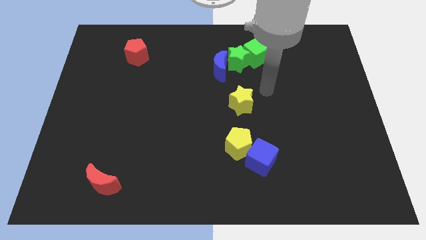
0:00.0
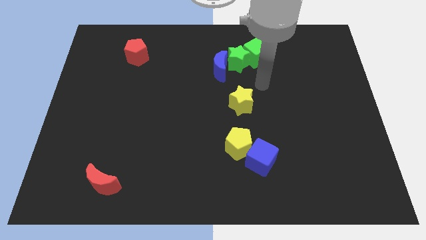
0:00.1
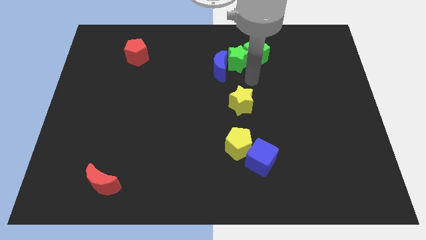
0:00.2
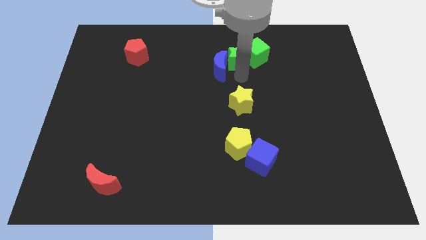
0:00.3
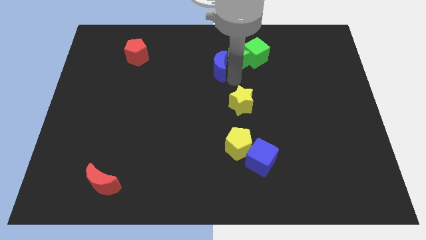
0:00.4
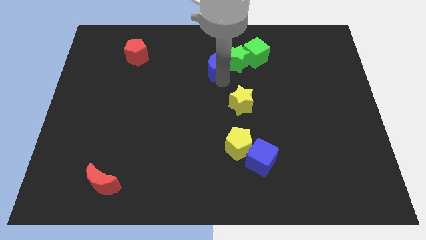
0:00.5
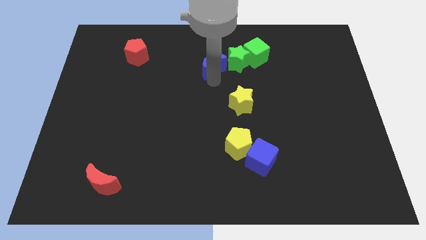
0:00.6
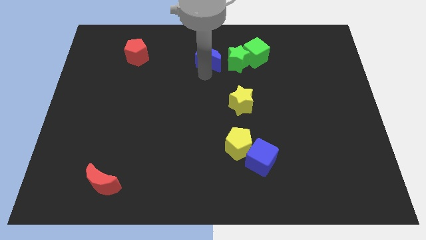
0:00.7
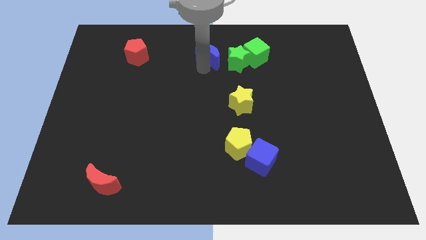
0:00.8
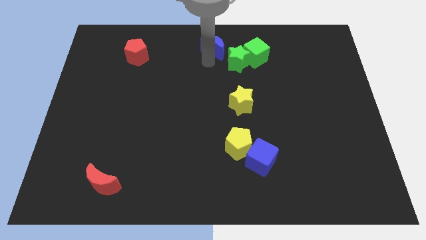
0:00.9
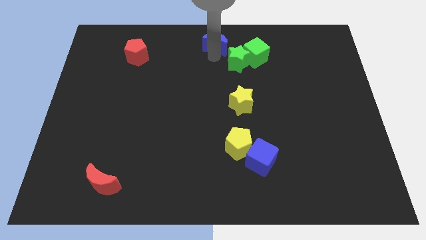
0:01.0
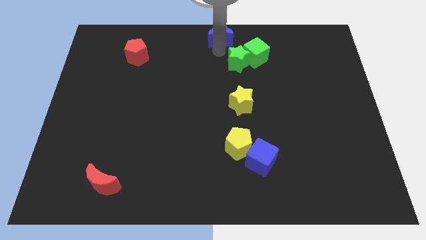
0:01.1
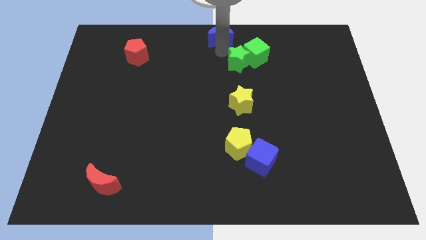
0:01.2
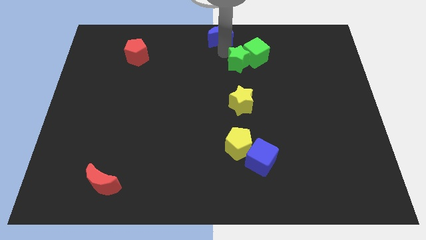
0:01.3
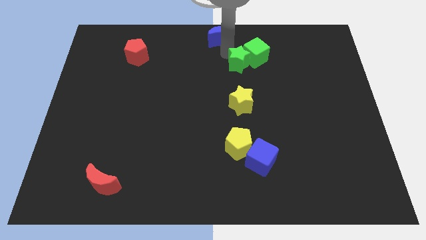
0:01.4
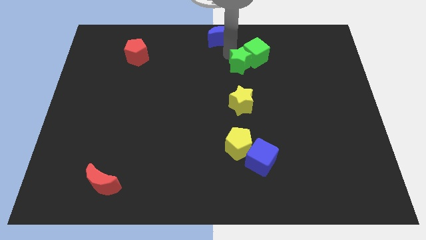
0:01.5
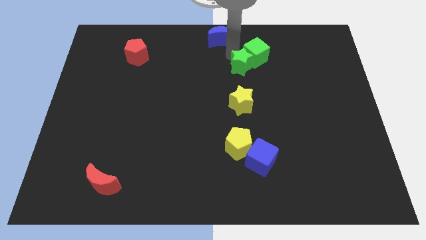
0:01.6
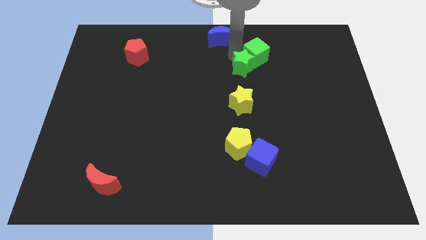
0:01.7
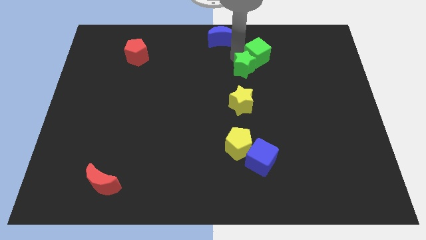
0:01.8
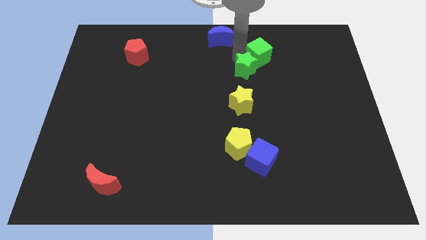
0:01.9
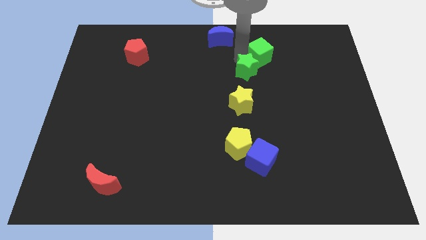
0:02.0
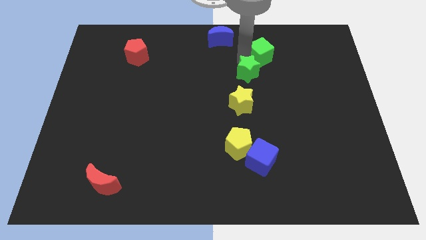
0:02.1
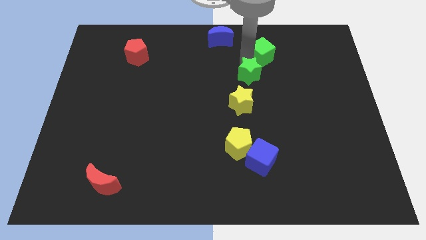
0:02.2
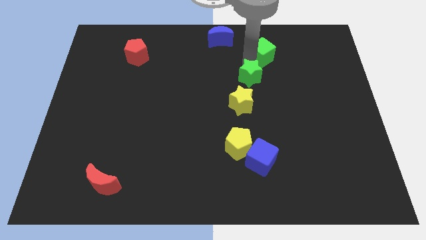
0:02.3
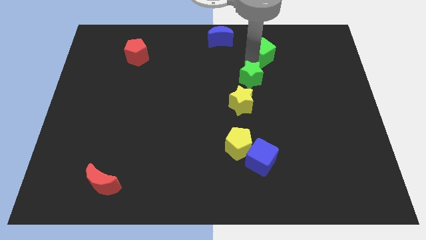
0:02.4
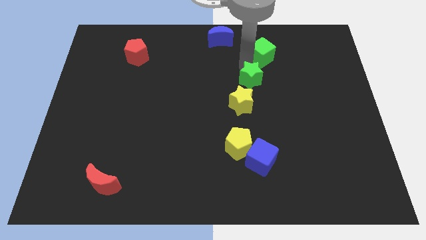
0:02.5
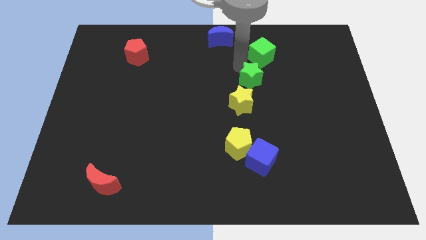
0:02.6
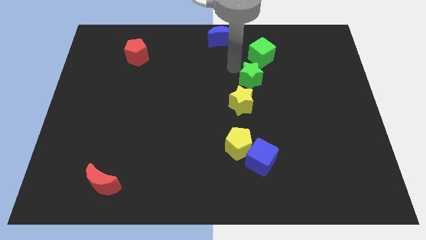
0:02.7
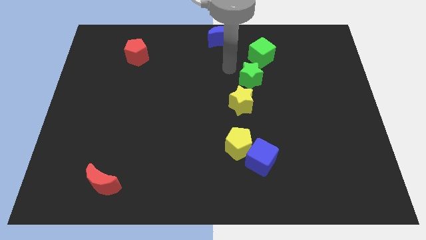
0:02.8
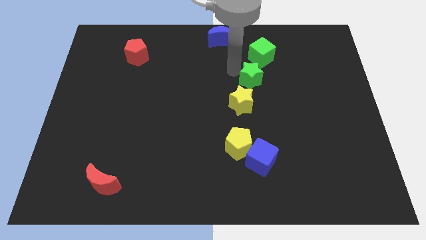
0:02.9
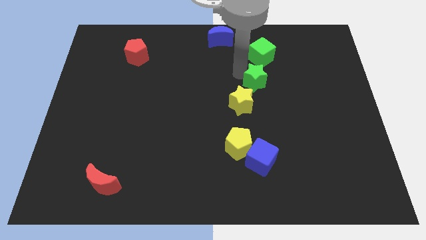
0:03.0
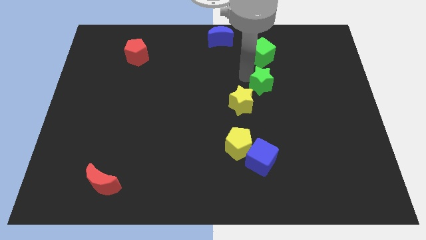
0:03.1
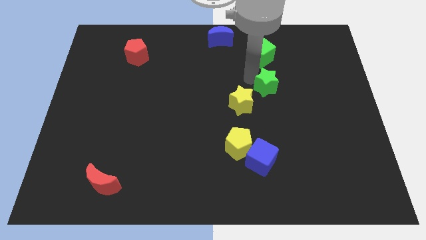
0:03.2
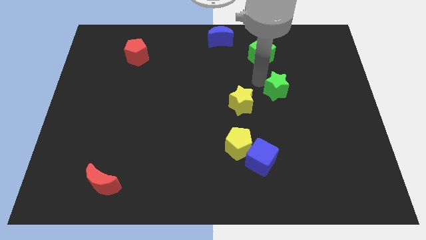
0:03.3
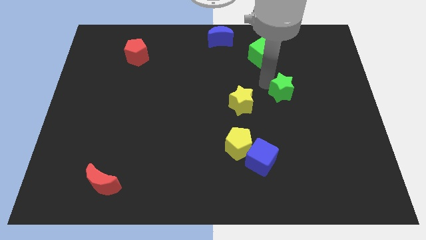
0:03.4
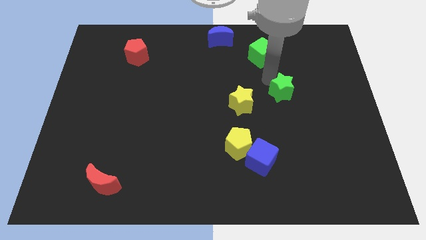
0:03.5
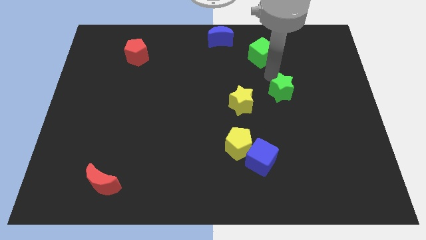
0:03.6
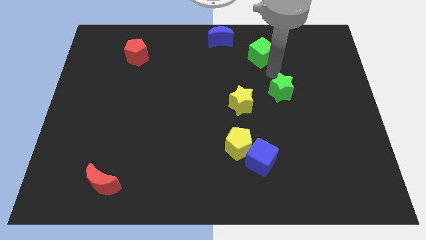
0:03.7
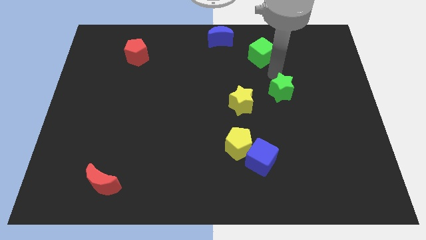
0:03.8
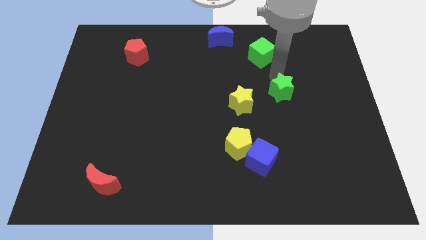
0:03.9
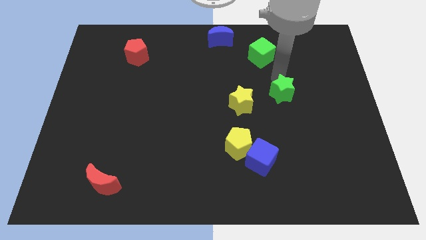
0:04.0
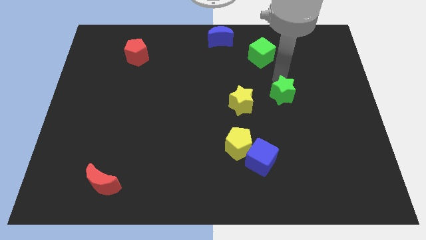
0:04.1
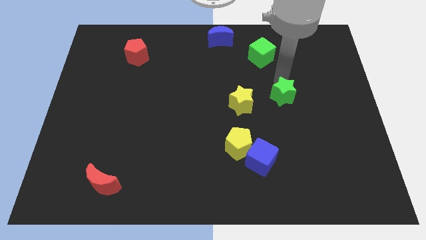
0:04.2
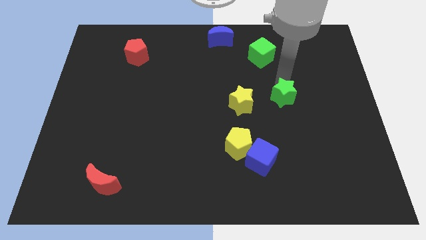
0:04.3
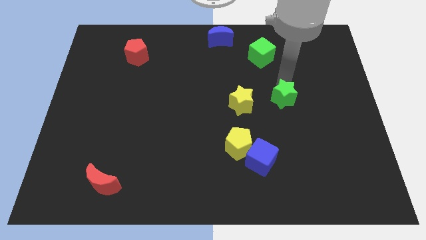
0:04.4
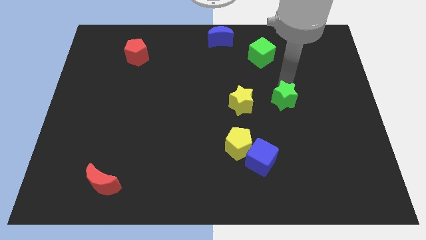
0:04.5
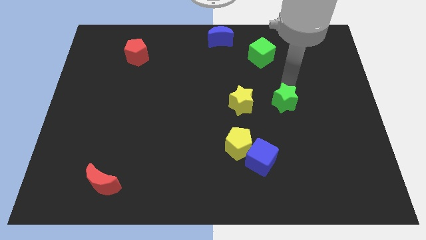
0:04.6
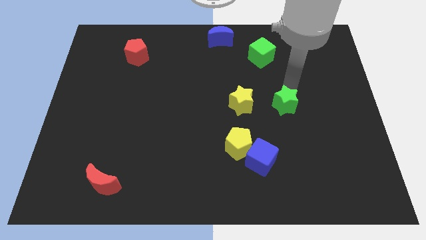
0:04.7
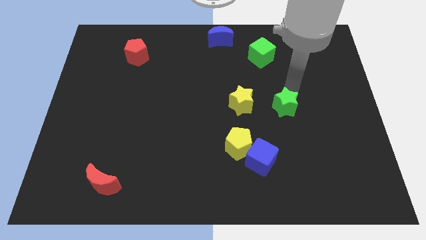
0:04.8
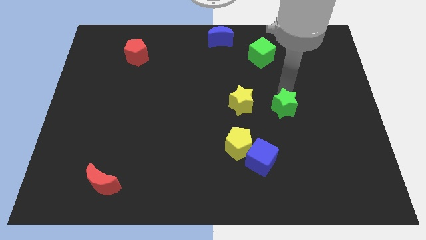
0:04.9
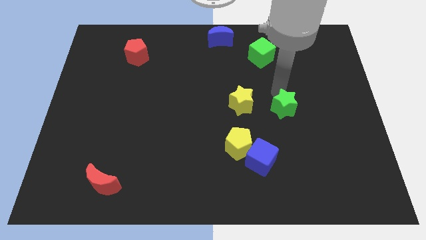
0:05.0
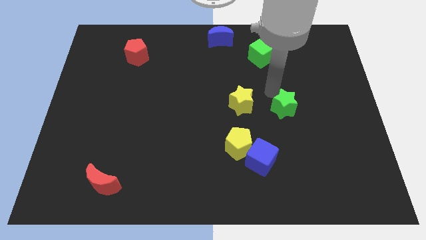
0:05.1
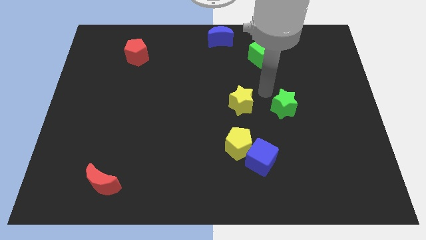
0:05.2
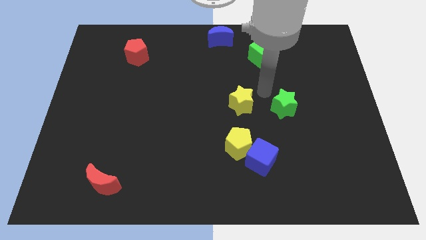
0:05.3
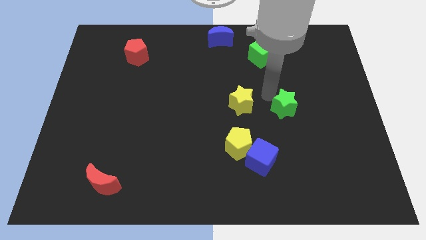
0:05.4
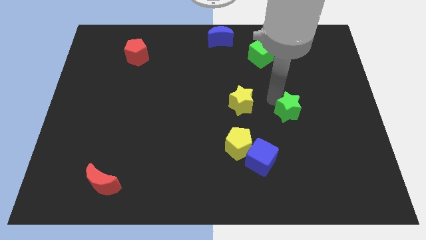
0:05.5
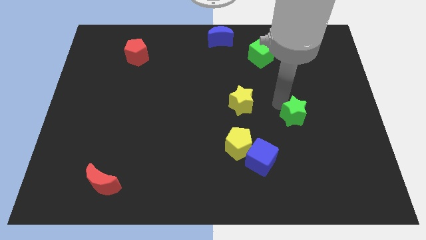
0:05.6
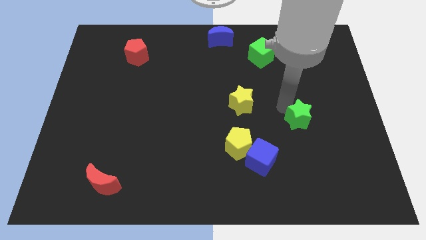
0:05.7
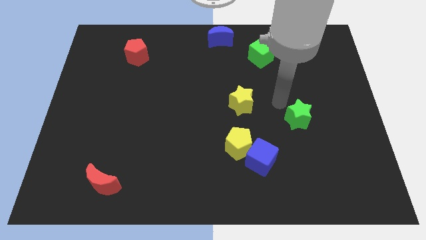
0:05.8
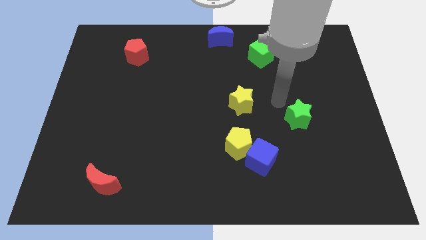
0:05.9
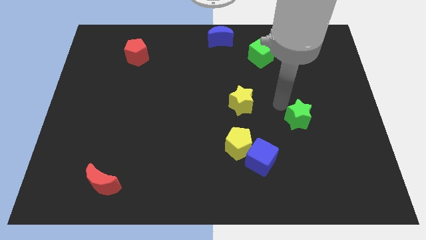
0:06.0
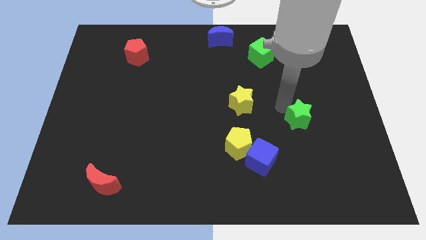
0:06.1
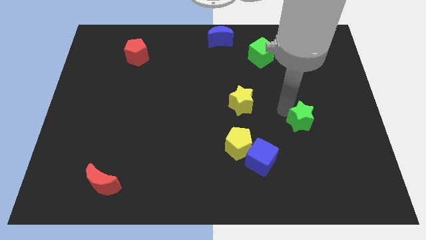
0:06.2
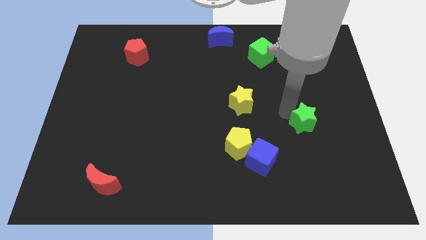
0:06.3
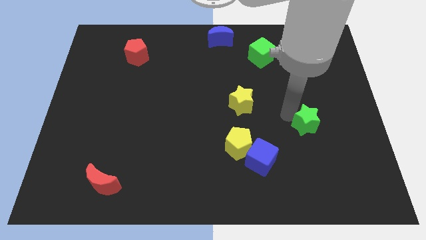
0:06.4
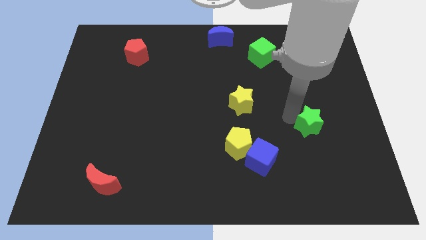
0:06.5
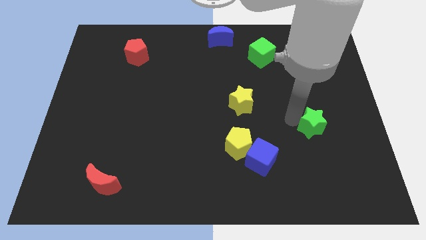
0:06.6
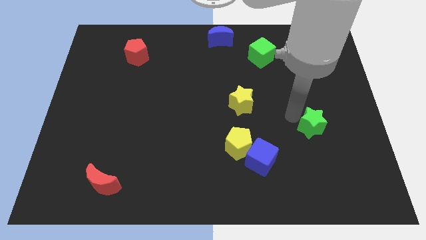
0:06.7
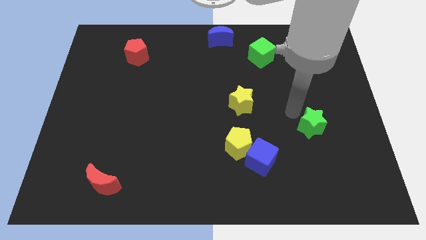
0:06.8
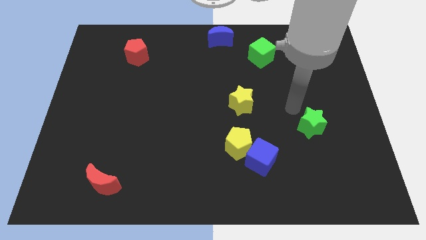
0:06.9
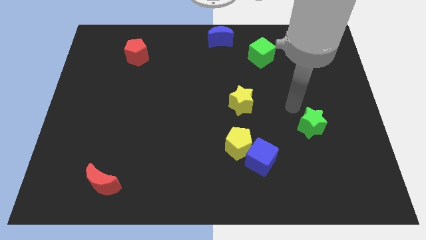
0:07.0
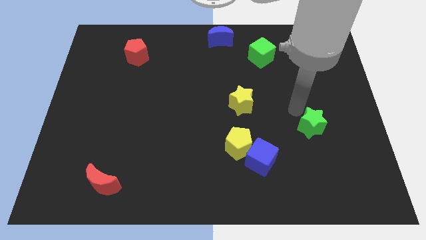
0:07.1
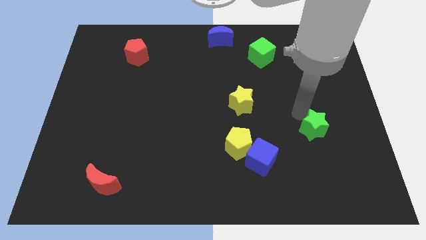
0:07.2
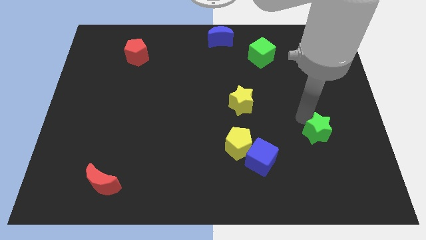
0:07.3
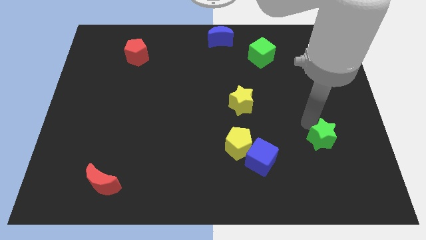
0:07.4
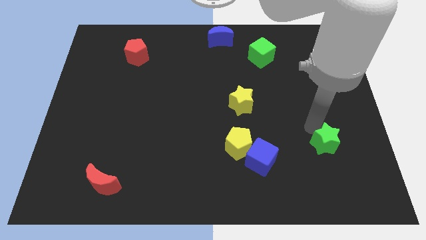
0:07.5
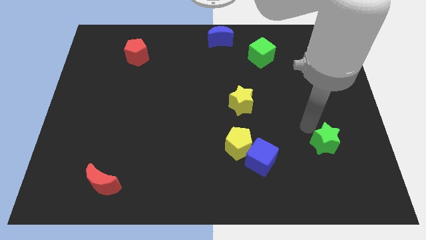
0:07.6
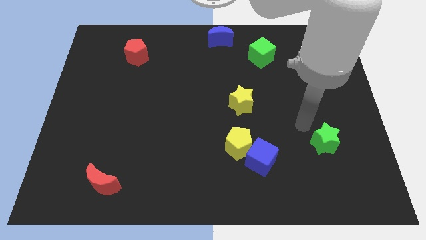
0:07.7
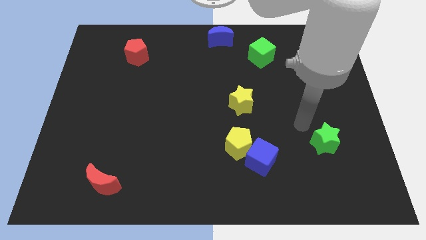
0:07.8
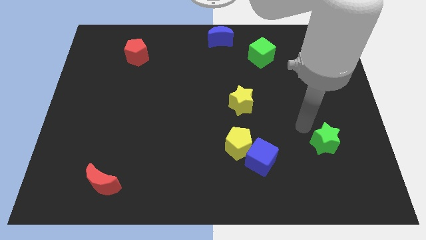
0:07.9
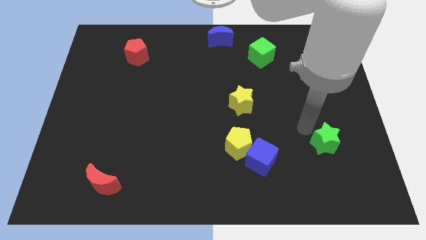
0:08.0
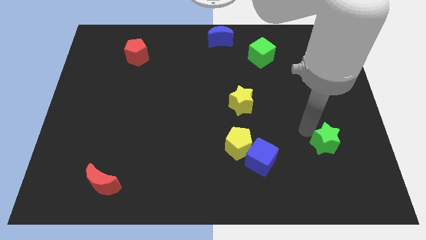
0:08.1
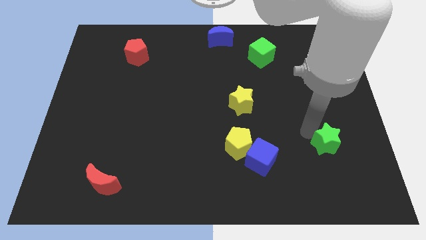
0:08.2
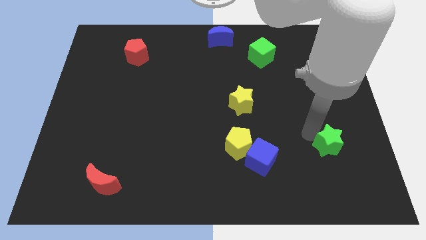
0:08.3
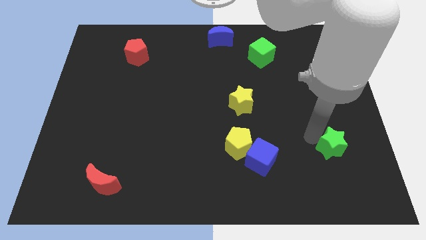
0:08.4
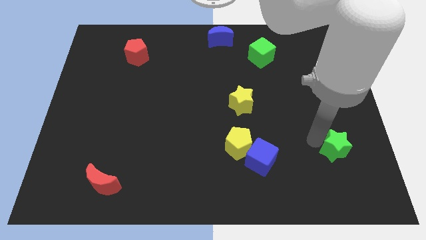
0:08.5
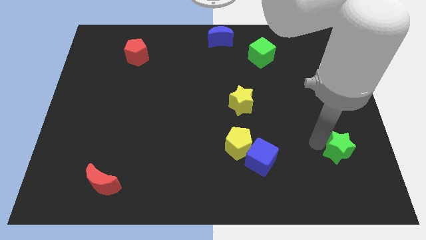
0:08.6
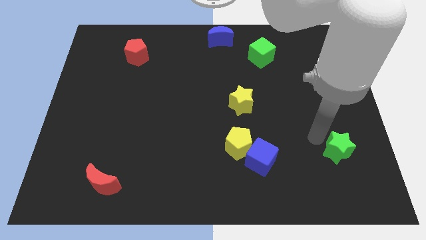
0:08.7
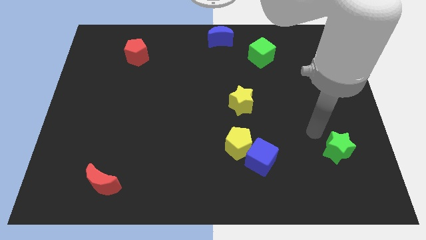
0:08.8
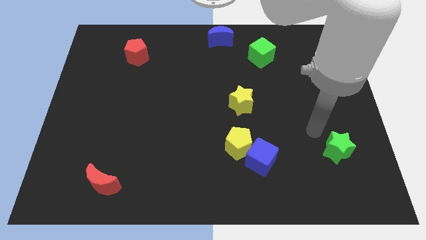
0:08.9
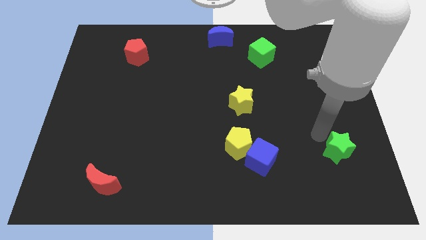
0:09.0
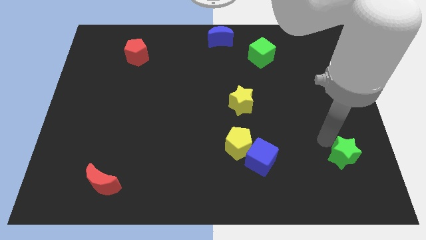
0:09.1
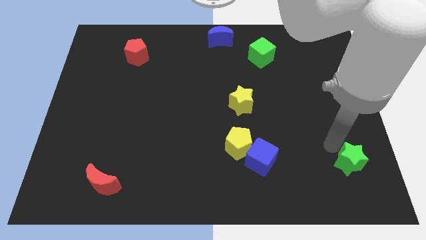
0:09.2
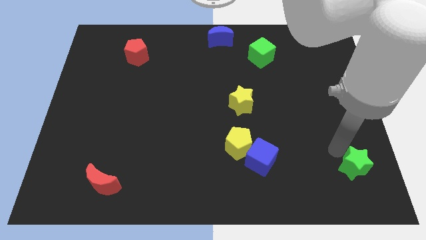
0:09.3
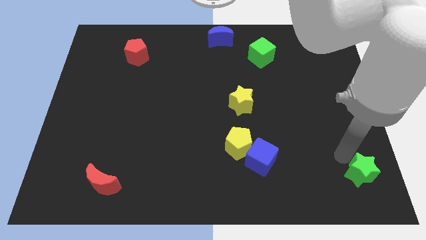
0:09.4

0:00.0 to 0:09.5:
push the green star to the bottom right
